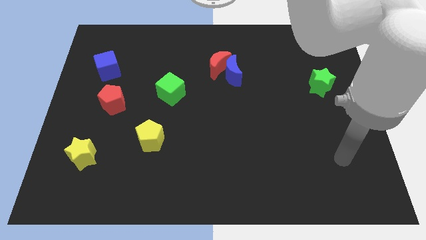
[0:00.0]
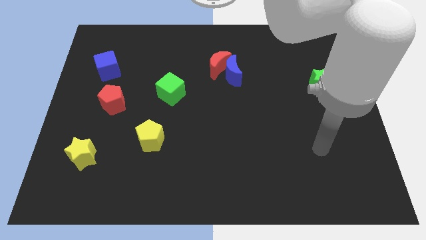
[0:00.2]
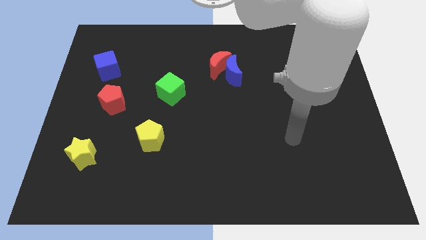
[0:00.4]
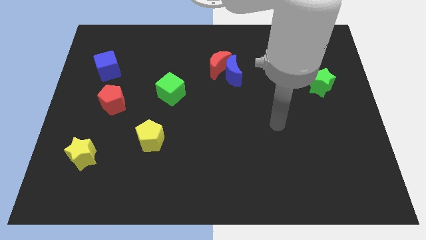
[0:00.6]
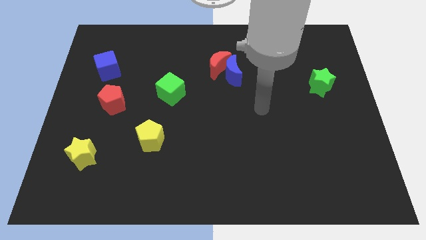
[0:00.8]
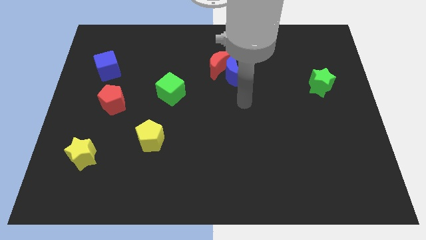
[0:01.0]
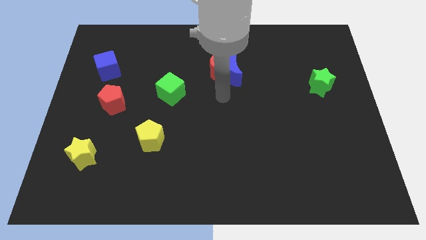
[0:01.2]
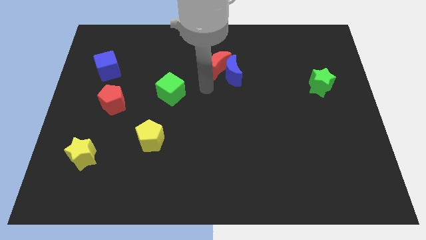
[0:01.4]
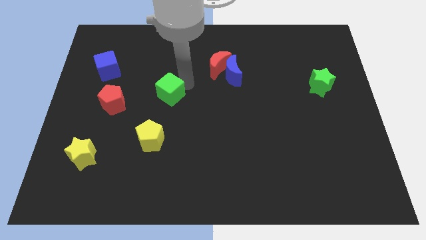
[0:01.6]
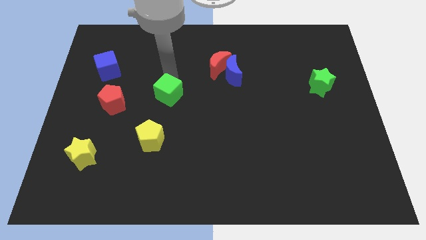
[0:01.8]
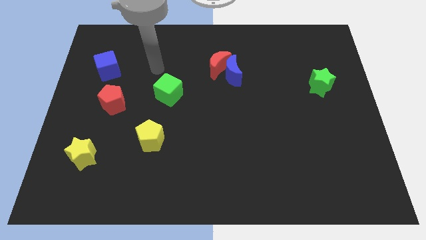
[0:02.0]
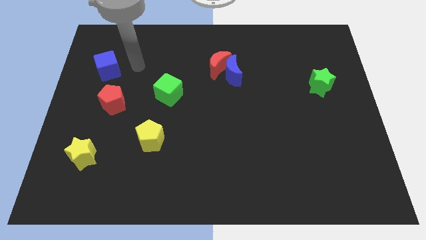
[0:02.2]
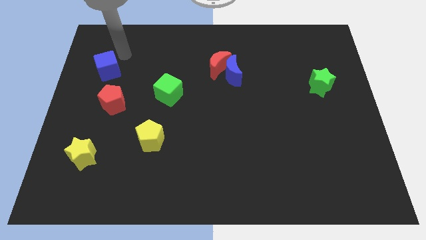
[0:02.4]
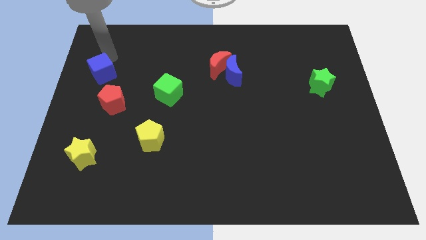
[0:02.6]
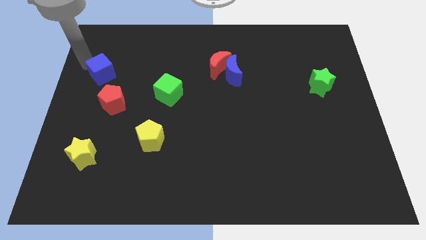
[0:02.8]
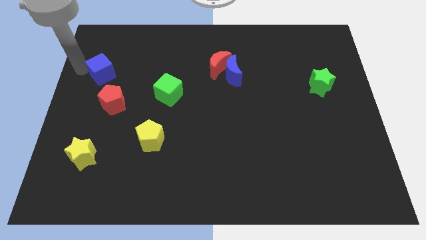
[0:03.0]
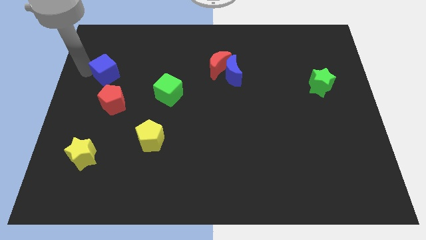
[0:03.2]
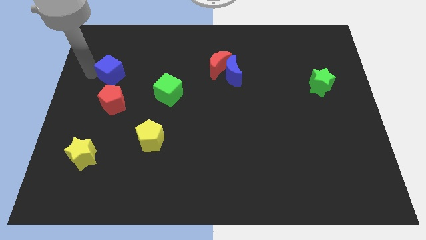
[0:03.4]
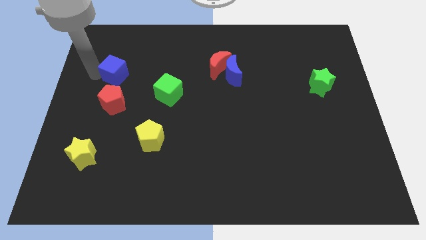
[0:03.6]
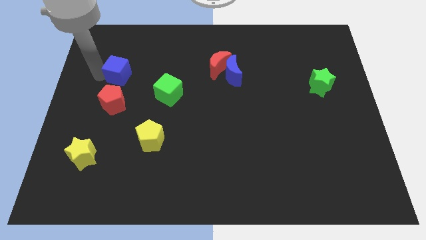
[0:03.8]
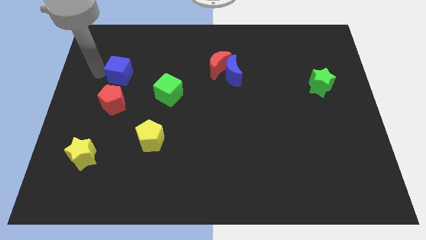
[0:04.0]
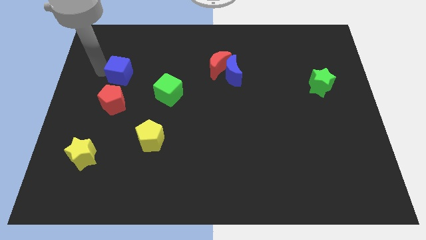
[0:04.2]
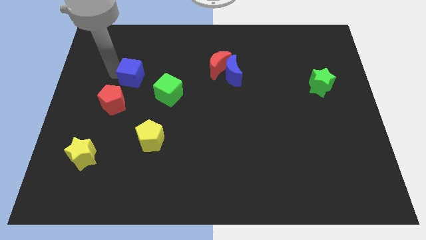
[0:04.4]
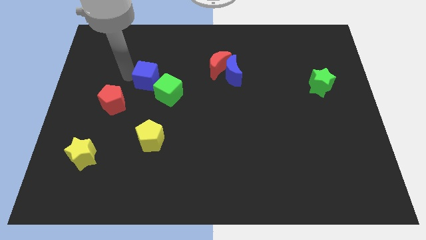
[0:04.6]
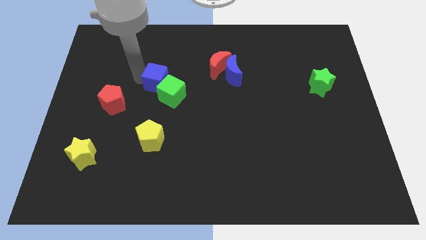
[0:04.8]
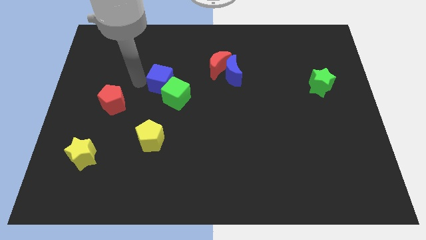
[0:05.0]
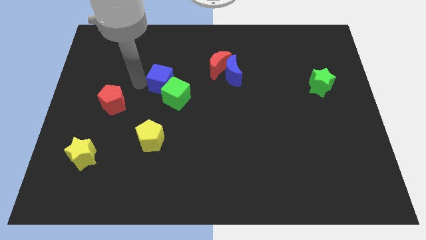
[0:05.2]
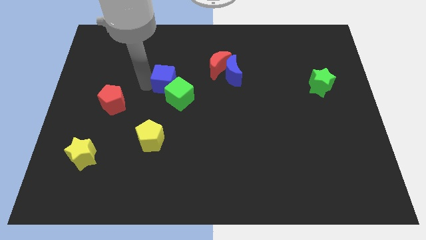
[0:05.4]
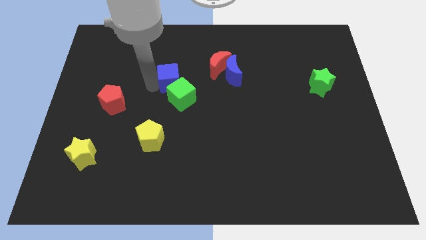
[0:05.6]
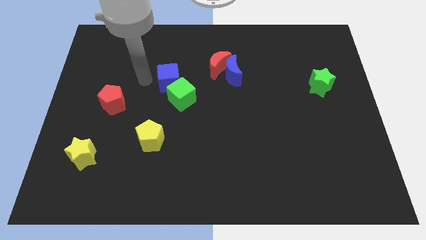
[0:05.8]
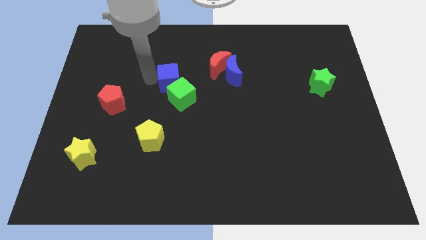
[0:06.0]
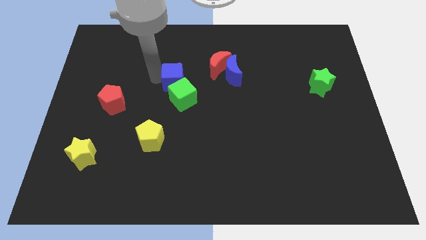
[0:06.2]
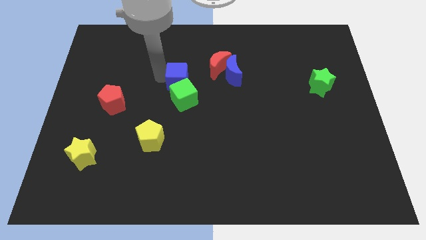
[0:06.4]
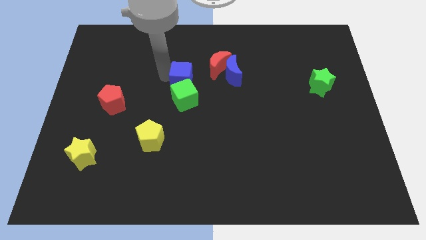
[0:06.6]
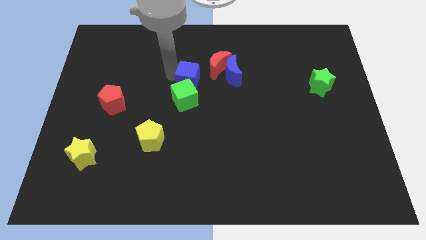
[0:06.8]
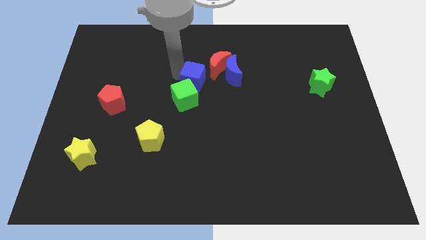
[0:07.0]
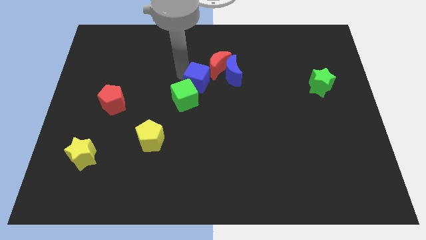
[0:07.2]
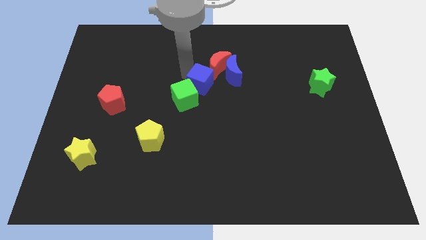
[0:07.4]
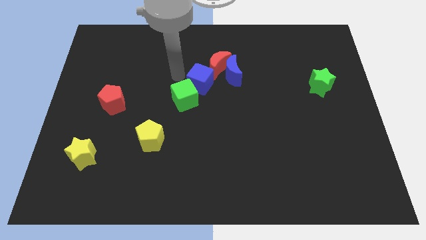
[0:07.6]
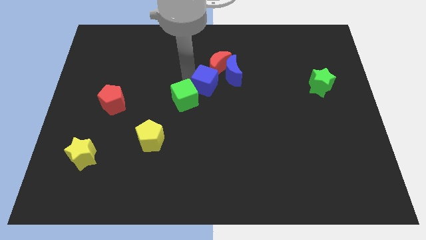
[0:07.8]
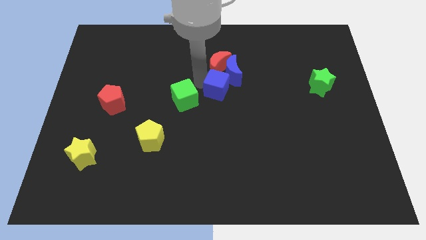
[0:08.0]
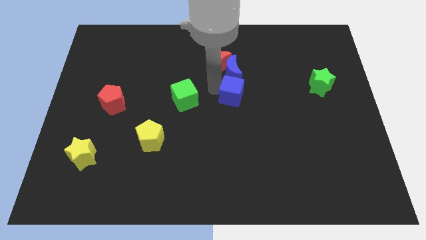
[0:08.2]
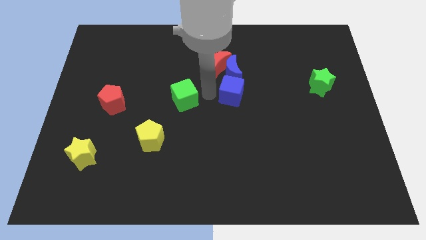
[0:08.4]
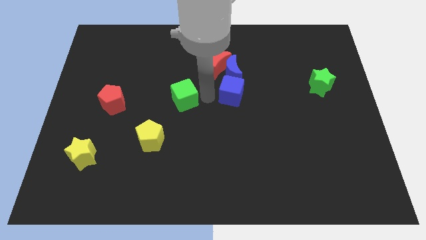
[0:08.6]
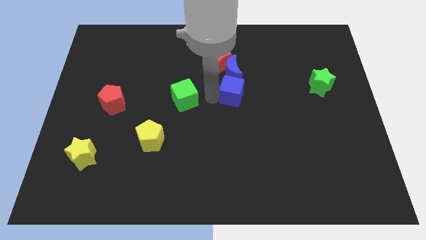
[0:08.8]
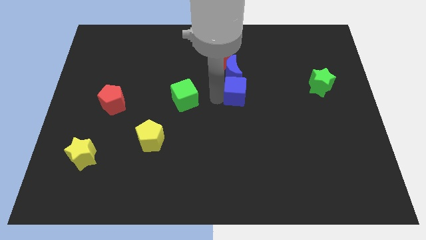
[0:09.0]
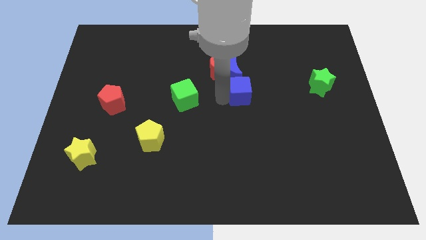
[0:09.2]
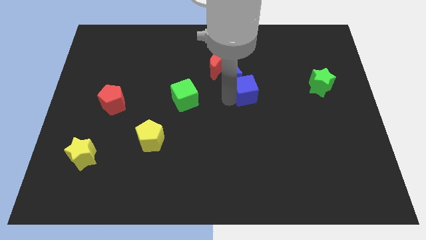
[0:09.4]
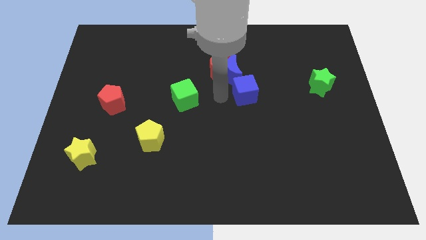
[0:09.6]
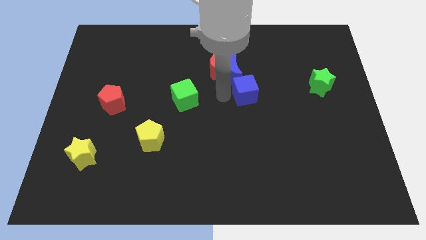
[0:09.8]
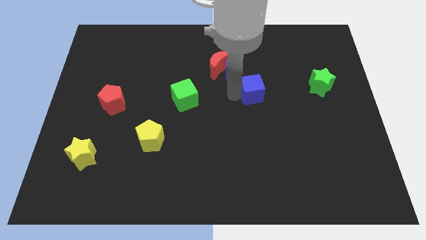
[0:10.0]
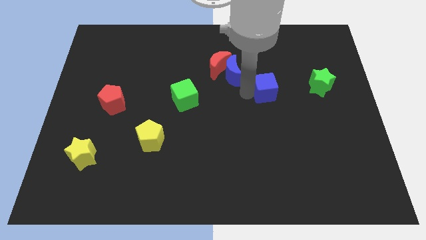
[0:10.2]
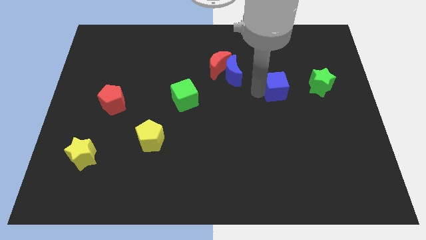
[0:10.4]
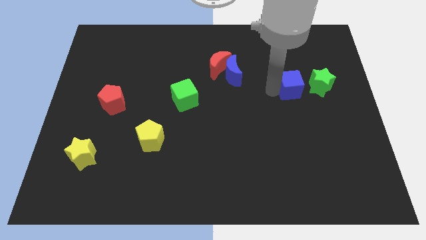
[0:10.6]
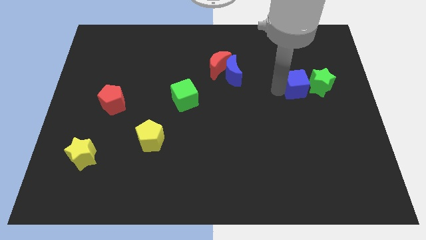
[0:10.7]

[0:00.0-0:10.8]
put the blue cube close to the green star

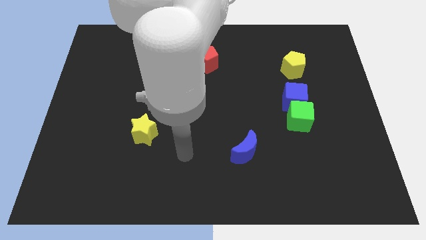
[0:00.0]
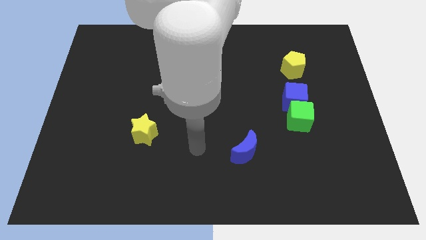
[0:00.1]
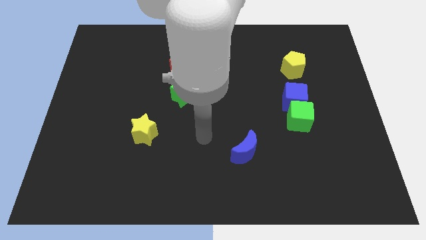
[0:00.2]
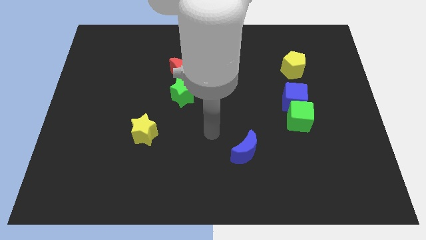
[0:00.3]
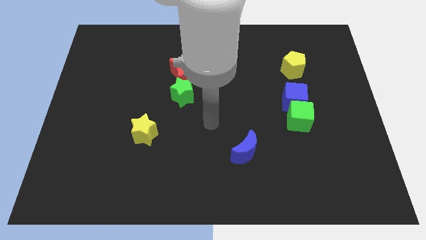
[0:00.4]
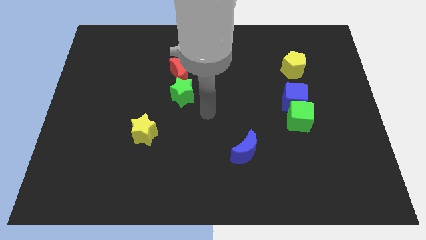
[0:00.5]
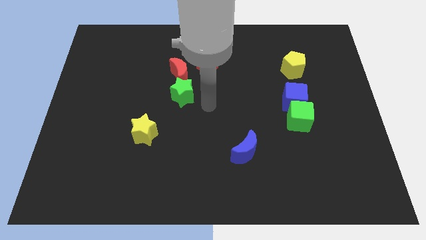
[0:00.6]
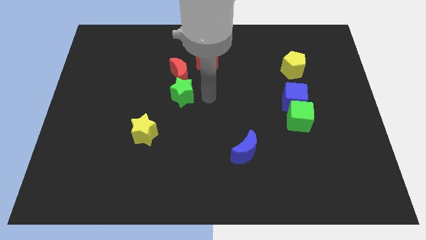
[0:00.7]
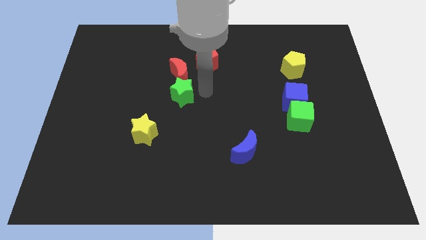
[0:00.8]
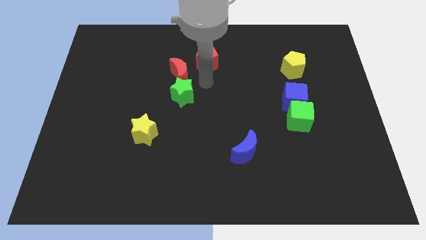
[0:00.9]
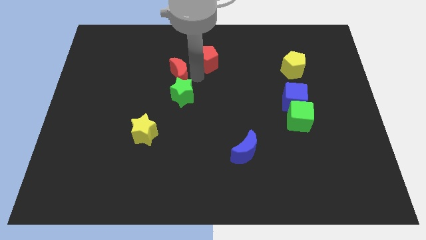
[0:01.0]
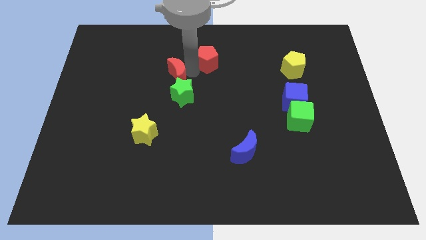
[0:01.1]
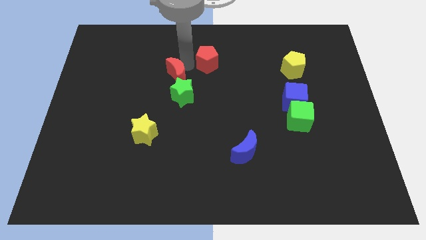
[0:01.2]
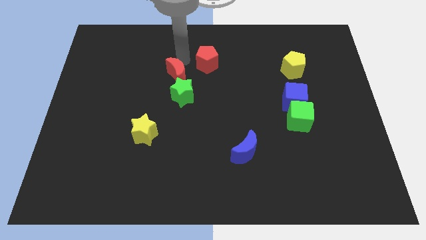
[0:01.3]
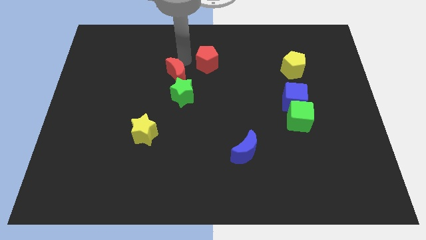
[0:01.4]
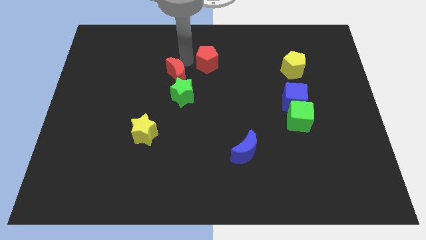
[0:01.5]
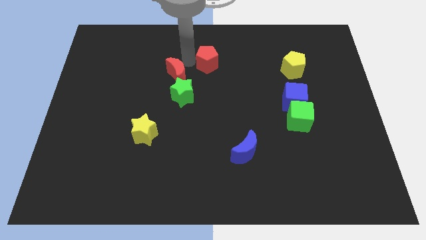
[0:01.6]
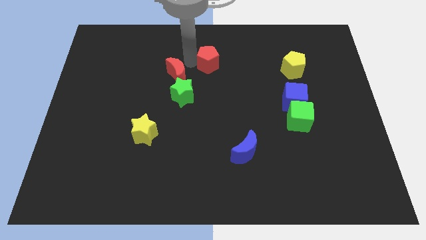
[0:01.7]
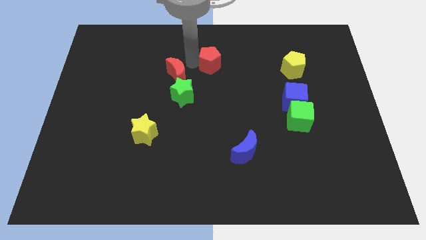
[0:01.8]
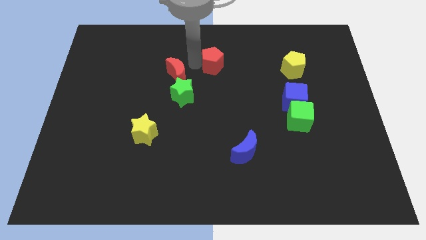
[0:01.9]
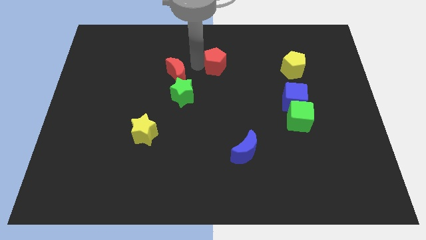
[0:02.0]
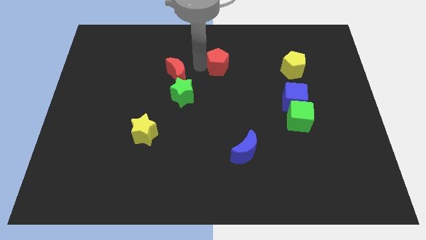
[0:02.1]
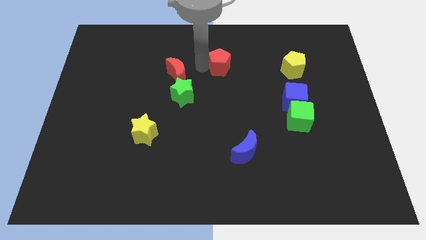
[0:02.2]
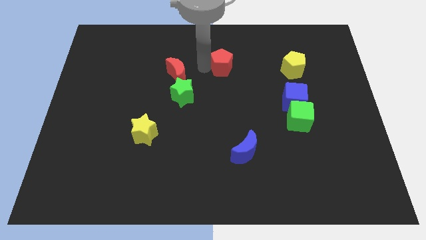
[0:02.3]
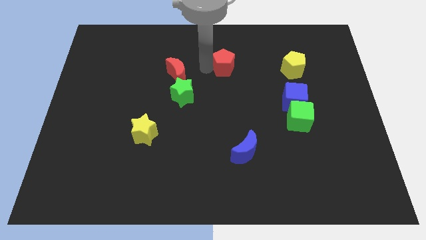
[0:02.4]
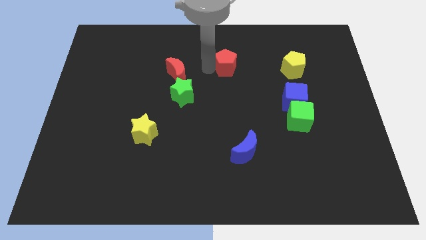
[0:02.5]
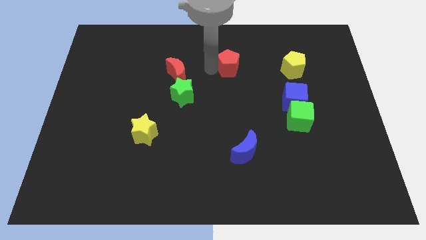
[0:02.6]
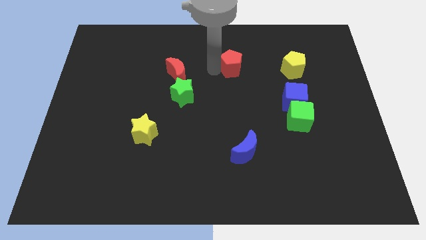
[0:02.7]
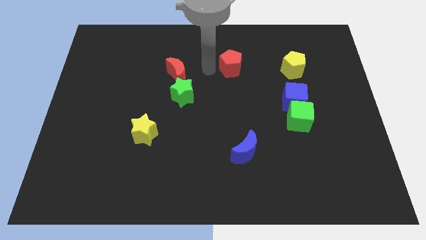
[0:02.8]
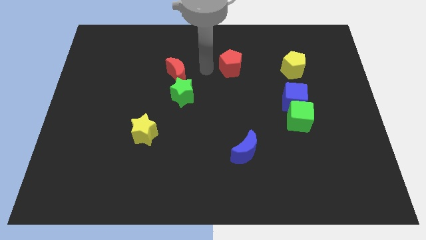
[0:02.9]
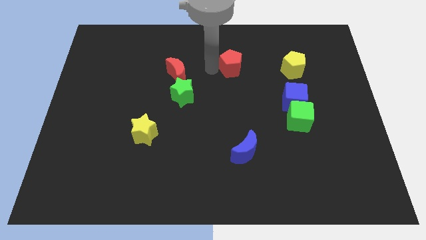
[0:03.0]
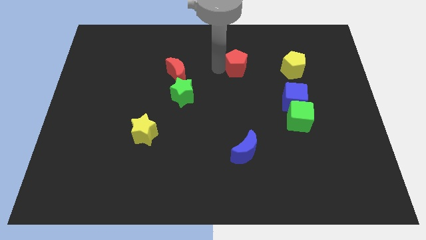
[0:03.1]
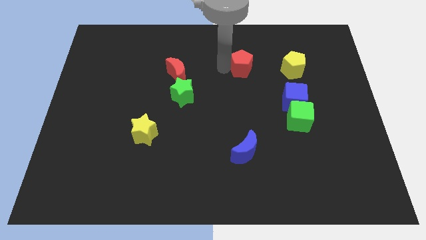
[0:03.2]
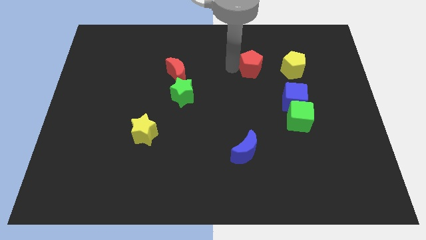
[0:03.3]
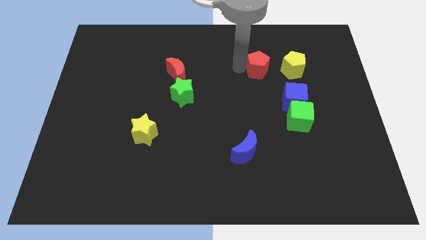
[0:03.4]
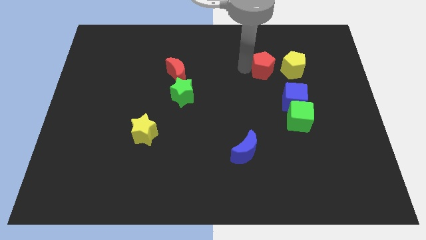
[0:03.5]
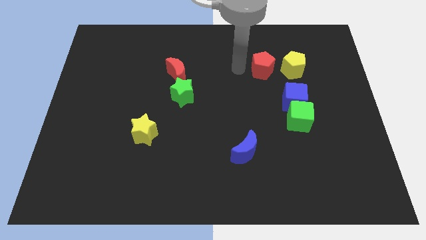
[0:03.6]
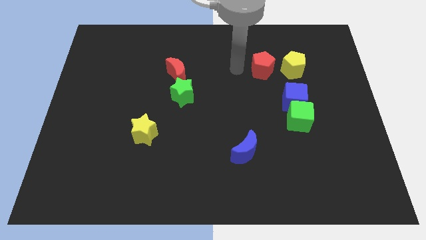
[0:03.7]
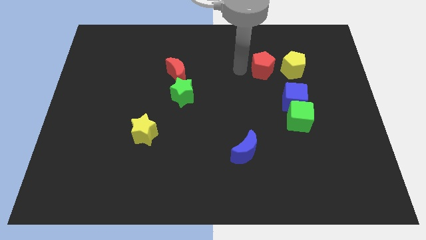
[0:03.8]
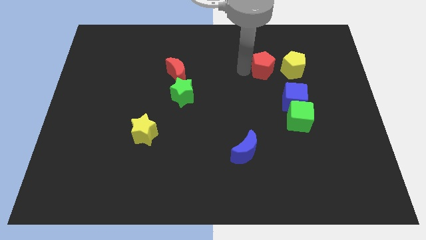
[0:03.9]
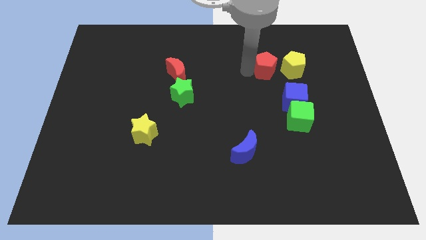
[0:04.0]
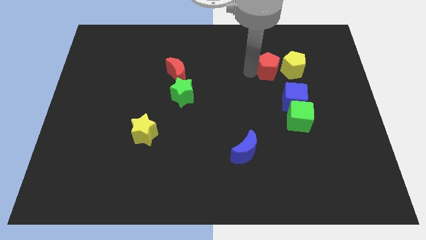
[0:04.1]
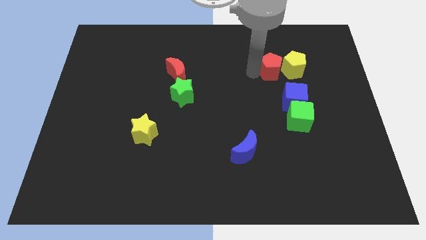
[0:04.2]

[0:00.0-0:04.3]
move the red pentagon next to the yellow pentagon
